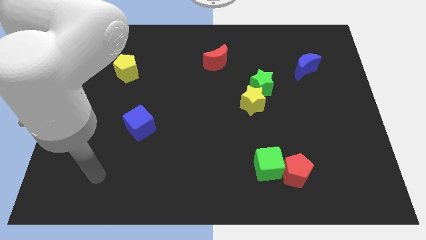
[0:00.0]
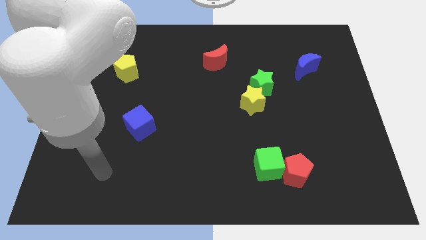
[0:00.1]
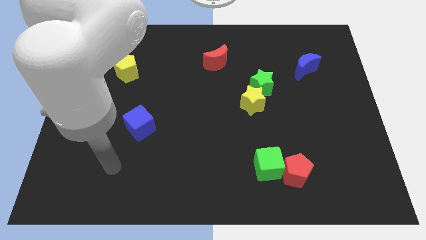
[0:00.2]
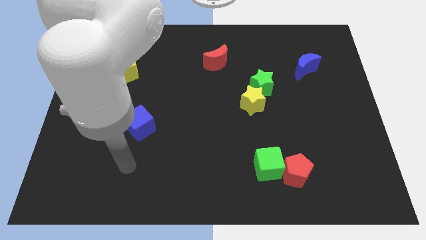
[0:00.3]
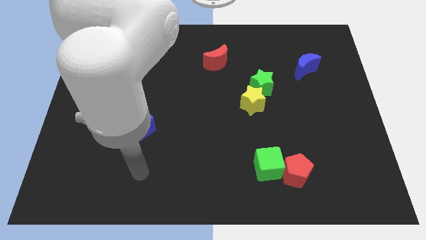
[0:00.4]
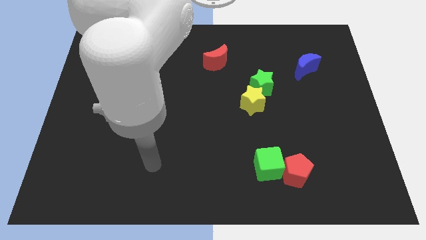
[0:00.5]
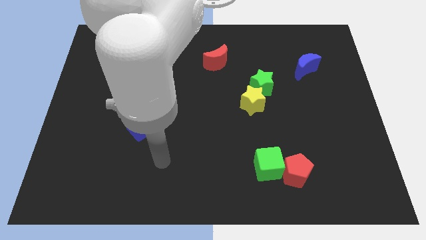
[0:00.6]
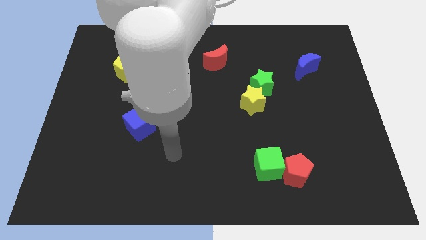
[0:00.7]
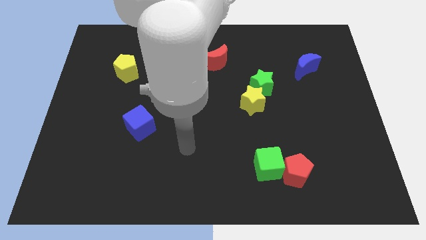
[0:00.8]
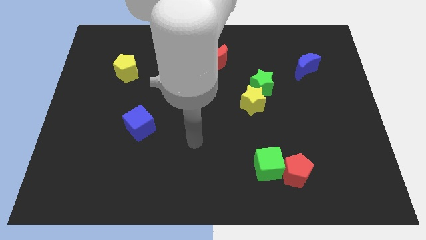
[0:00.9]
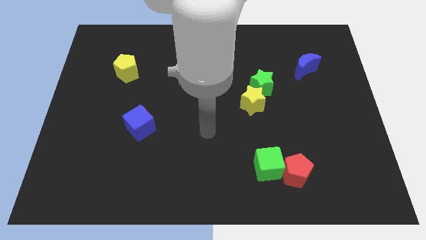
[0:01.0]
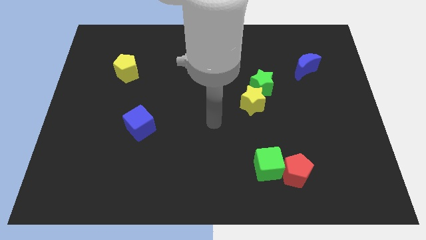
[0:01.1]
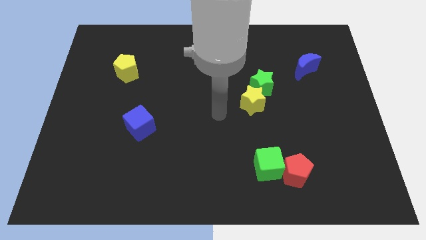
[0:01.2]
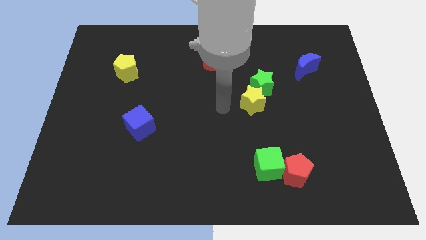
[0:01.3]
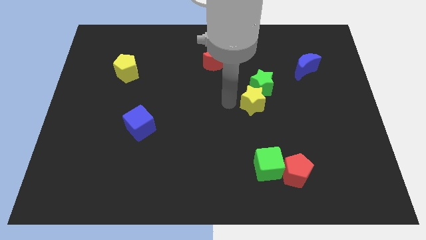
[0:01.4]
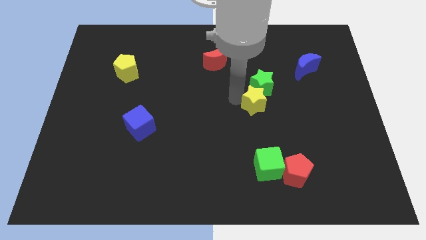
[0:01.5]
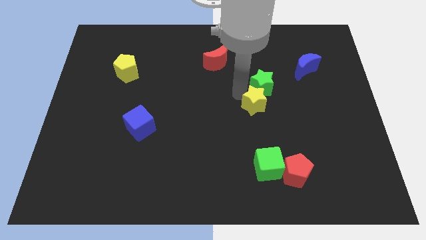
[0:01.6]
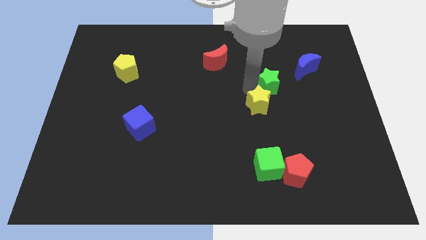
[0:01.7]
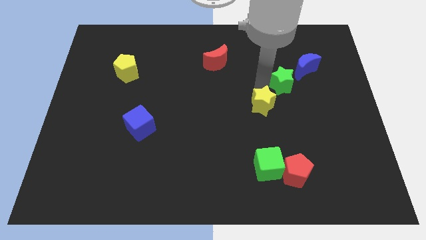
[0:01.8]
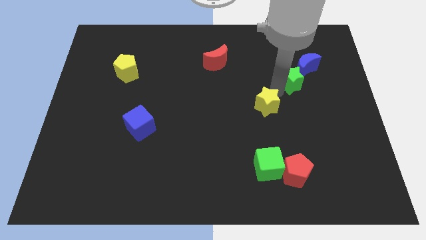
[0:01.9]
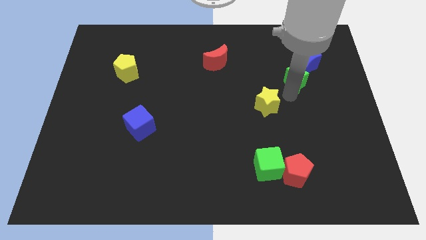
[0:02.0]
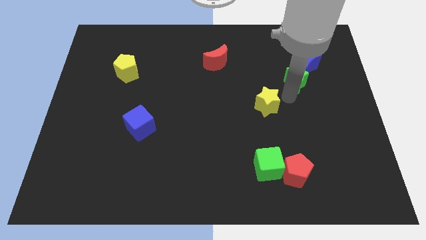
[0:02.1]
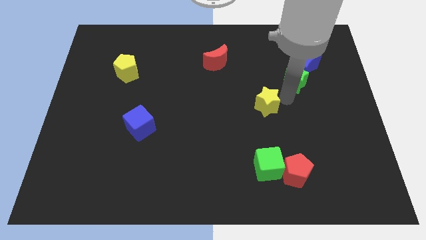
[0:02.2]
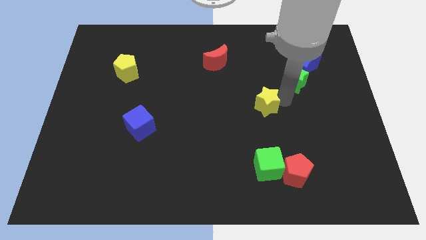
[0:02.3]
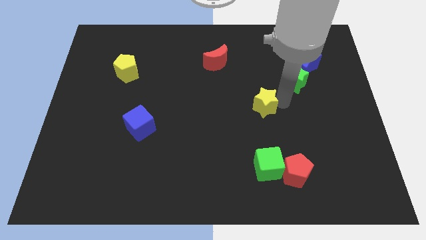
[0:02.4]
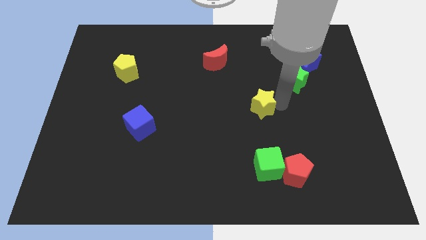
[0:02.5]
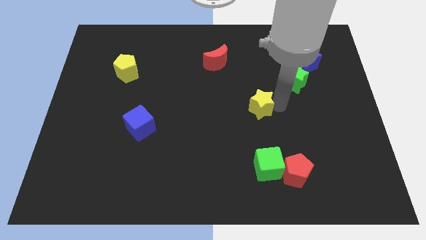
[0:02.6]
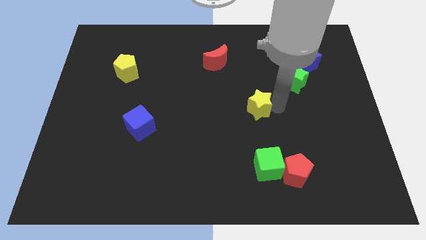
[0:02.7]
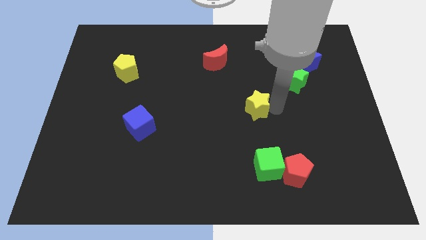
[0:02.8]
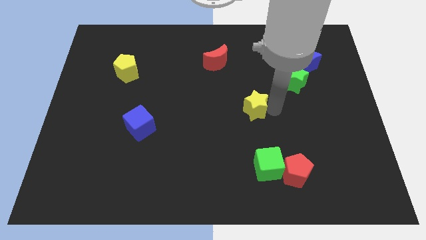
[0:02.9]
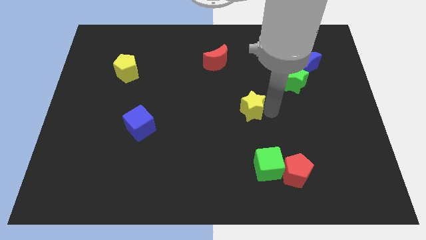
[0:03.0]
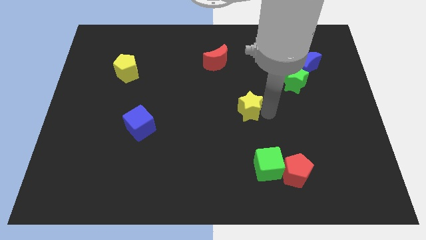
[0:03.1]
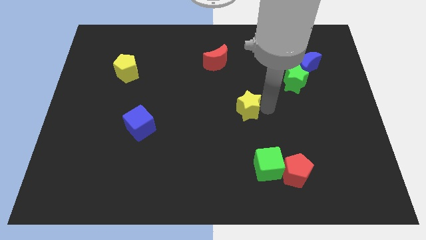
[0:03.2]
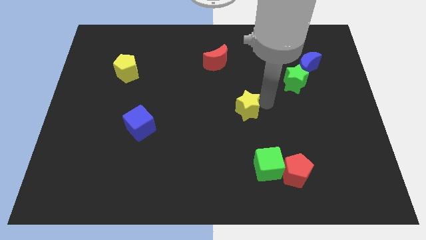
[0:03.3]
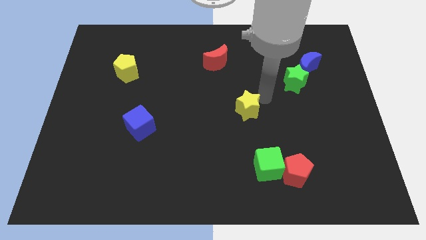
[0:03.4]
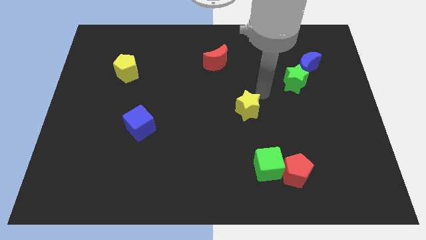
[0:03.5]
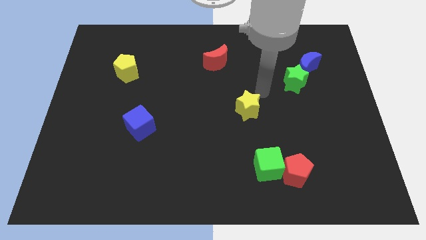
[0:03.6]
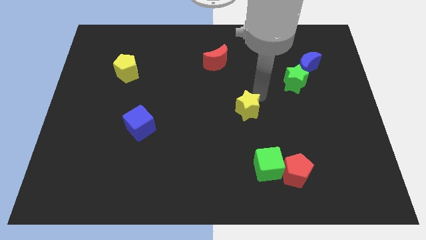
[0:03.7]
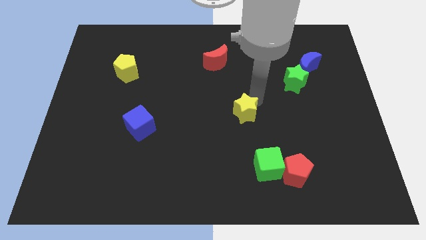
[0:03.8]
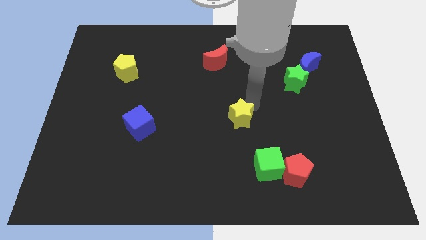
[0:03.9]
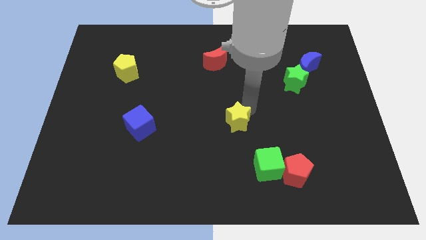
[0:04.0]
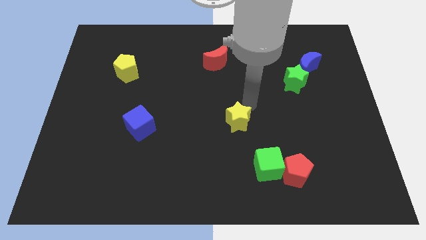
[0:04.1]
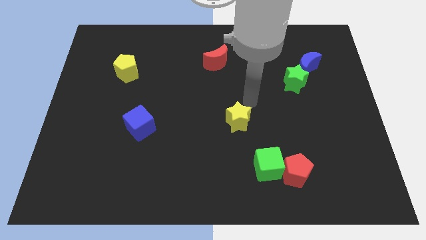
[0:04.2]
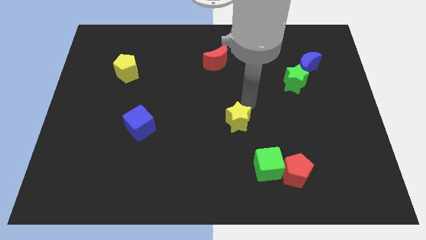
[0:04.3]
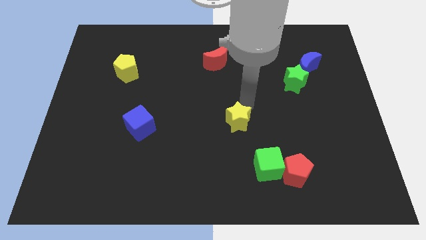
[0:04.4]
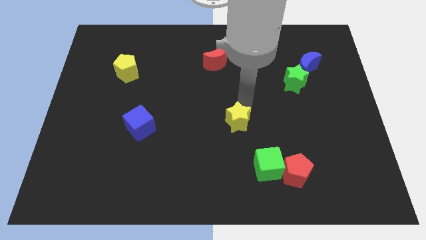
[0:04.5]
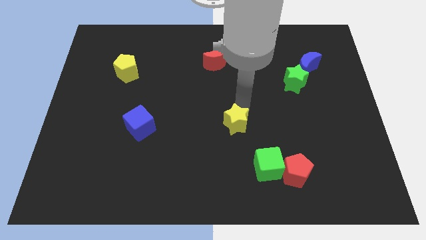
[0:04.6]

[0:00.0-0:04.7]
slide the yellow star a bit downwards and to the left diagonally

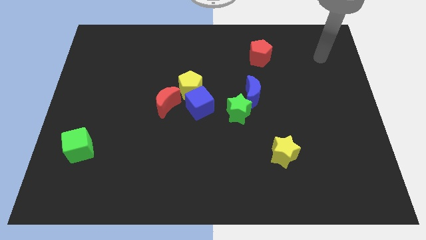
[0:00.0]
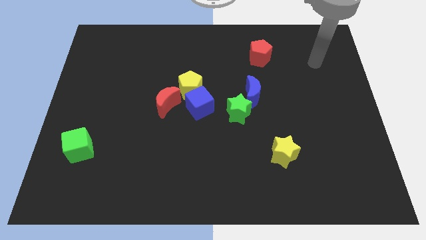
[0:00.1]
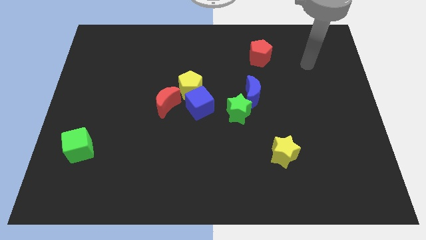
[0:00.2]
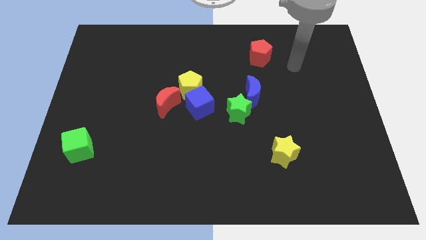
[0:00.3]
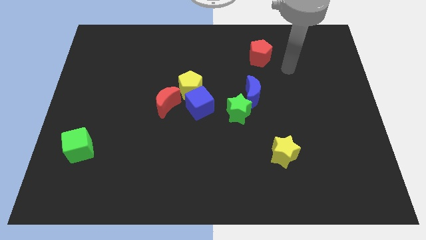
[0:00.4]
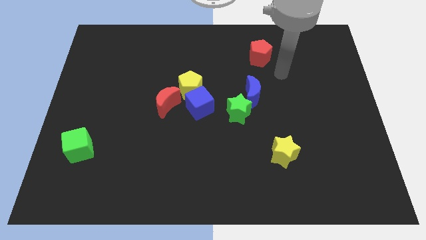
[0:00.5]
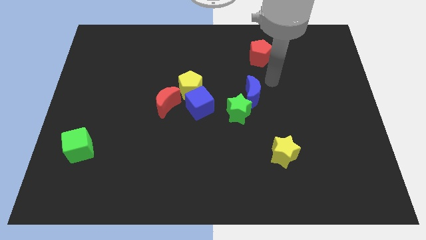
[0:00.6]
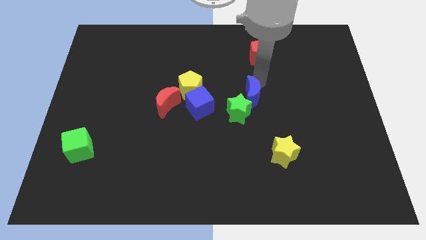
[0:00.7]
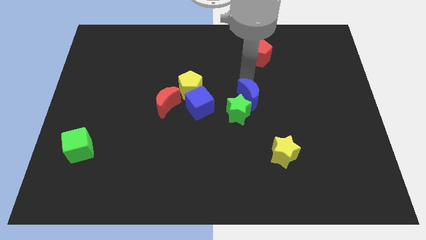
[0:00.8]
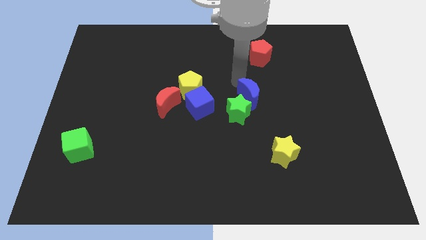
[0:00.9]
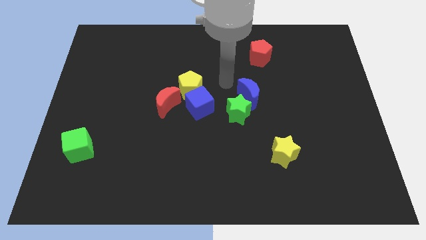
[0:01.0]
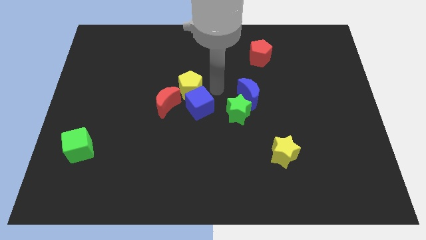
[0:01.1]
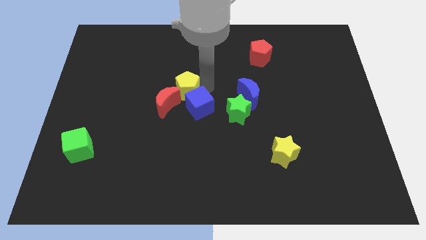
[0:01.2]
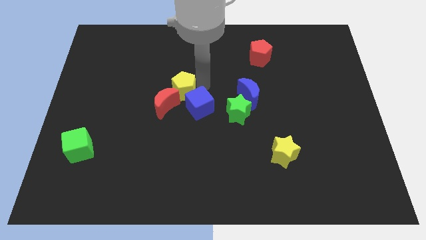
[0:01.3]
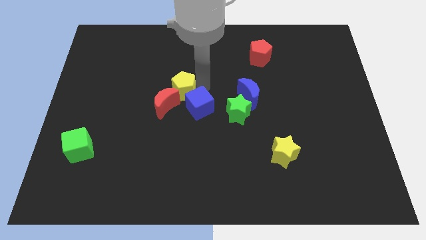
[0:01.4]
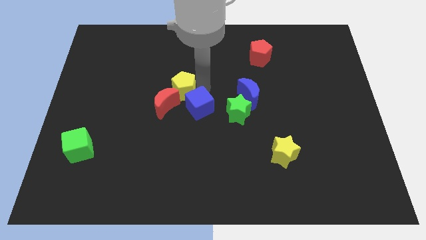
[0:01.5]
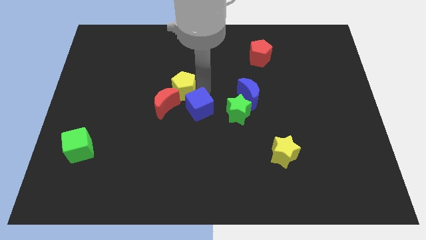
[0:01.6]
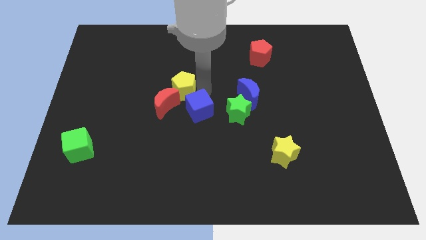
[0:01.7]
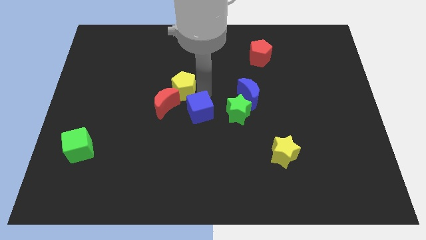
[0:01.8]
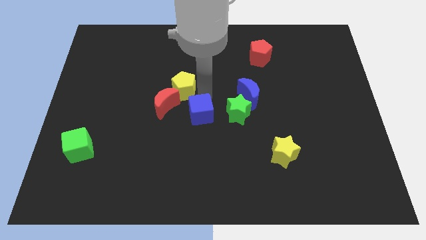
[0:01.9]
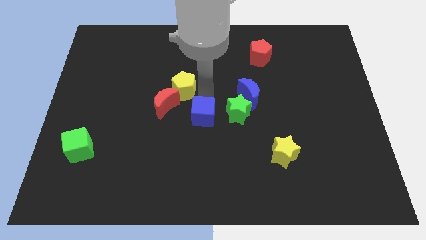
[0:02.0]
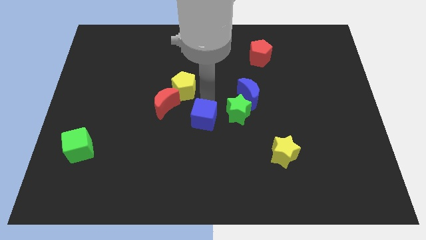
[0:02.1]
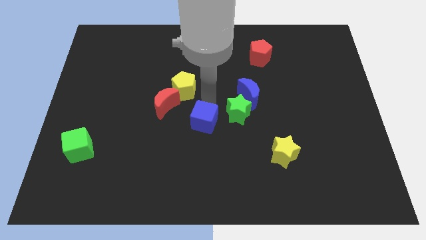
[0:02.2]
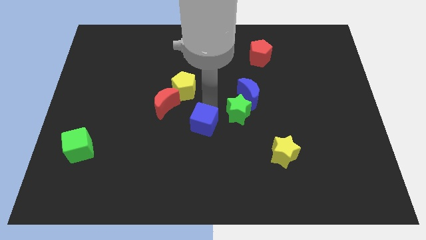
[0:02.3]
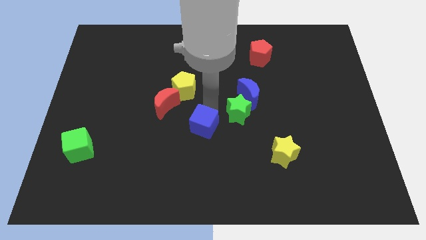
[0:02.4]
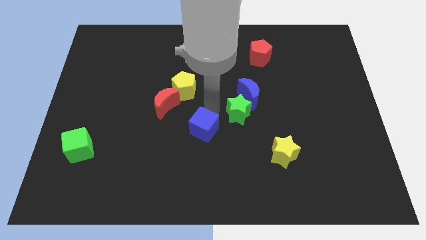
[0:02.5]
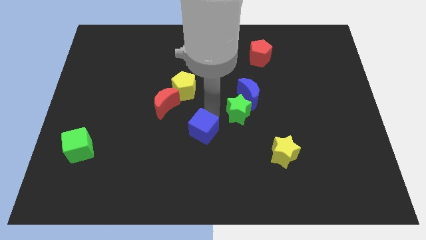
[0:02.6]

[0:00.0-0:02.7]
push the blue cube a little down

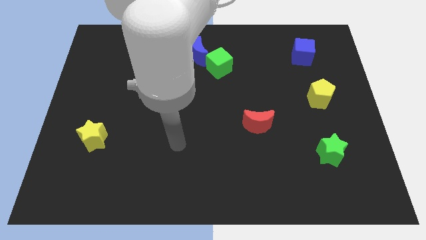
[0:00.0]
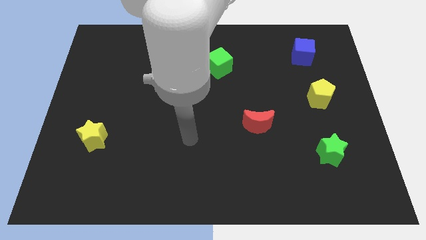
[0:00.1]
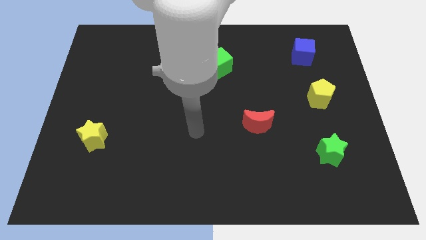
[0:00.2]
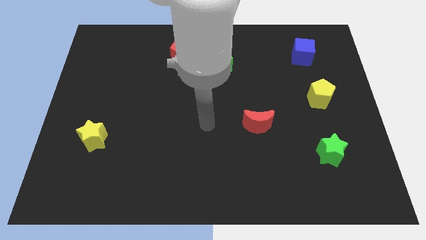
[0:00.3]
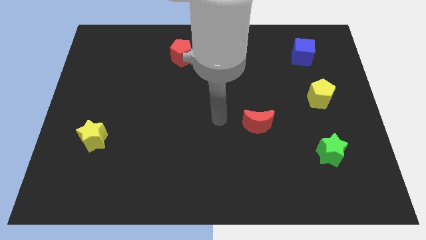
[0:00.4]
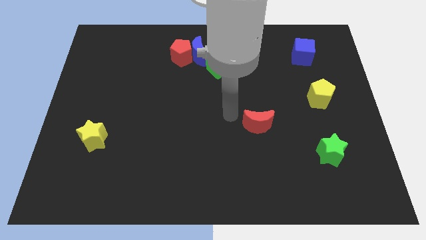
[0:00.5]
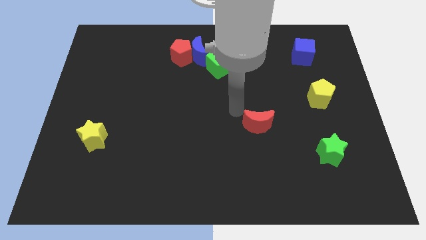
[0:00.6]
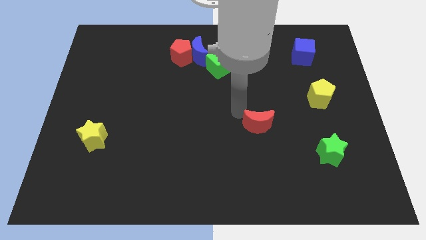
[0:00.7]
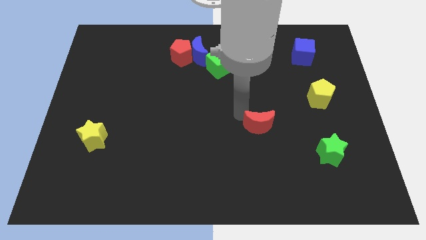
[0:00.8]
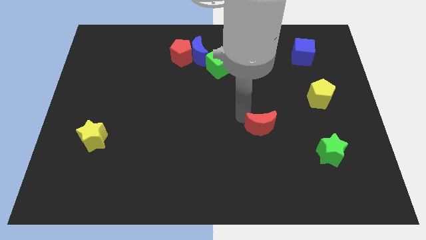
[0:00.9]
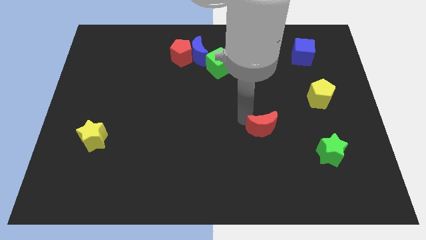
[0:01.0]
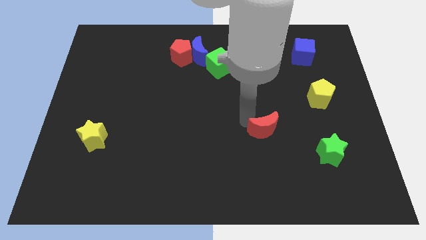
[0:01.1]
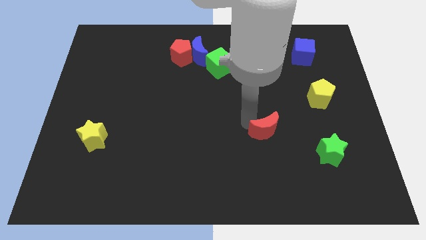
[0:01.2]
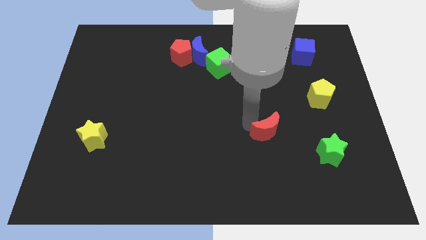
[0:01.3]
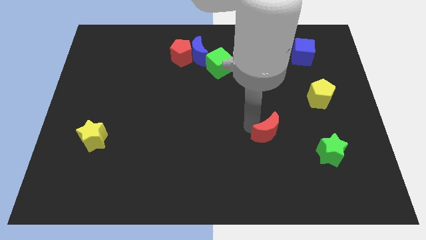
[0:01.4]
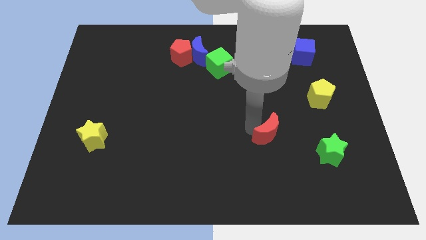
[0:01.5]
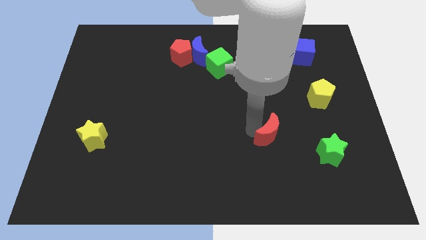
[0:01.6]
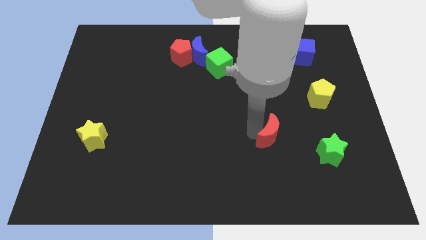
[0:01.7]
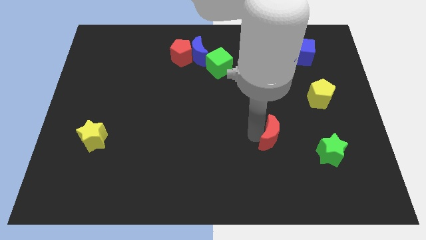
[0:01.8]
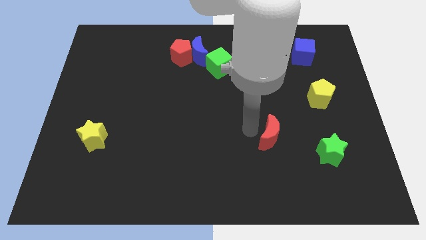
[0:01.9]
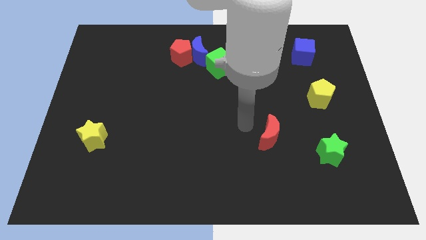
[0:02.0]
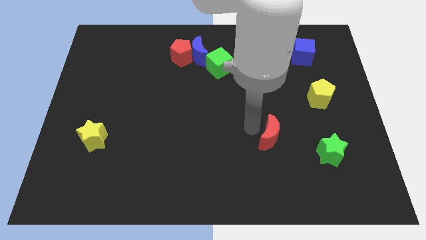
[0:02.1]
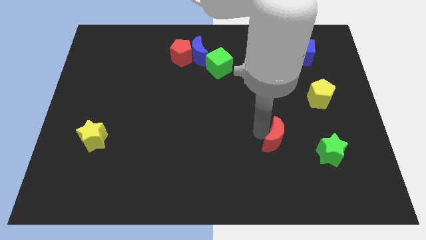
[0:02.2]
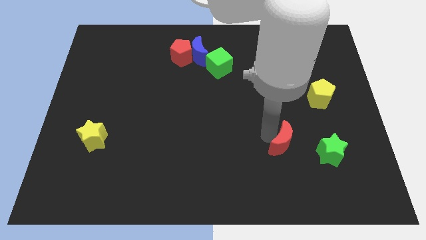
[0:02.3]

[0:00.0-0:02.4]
move the red moon a bit down and right
